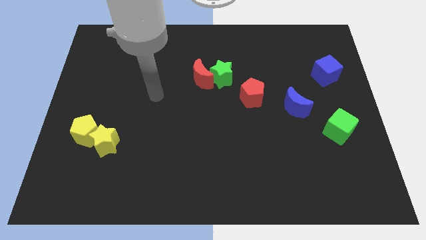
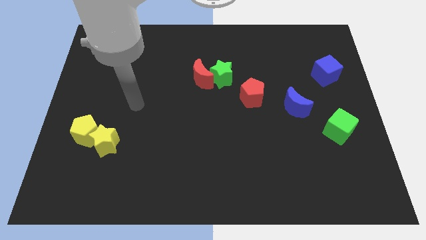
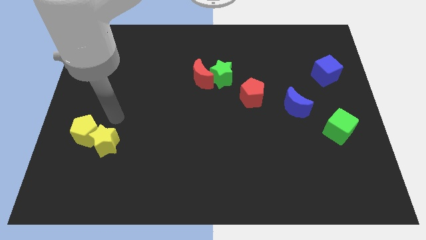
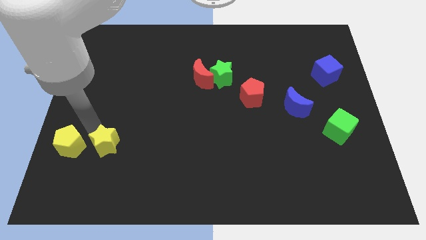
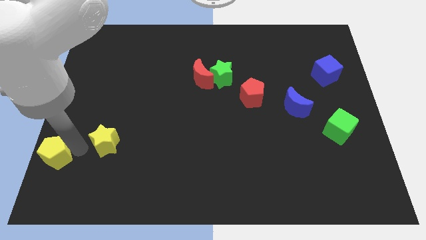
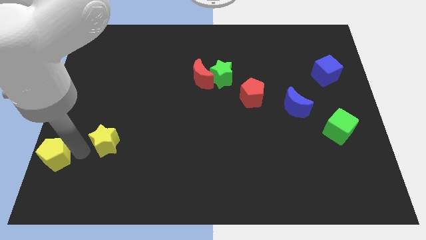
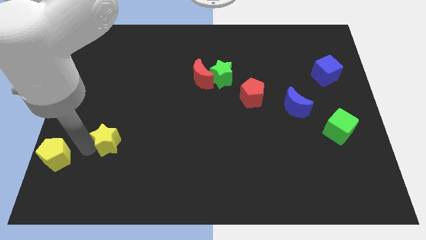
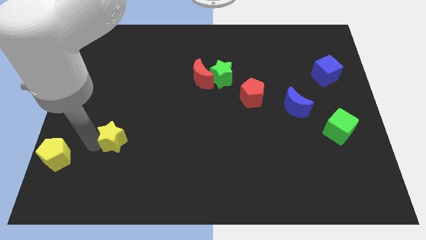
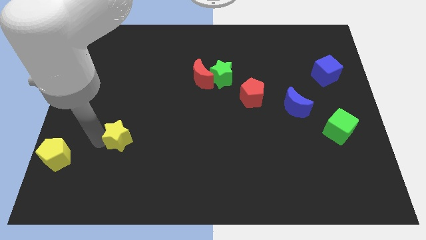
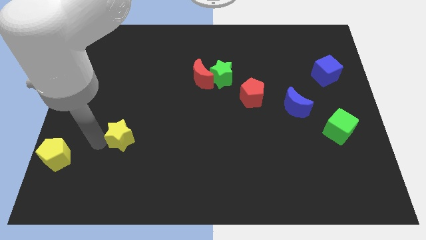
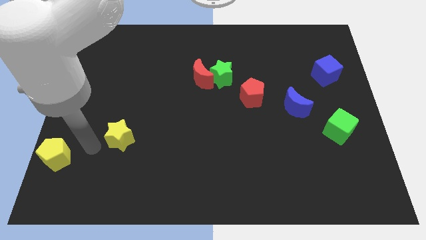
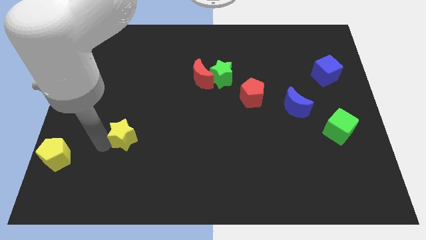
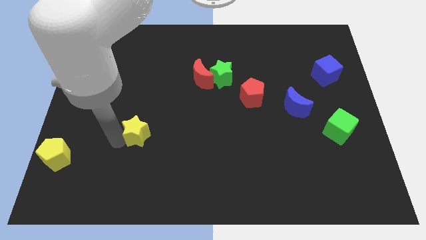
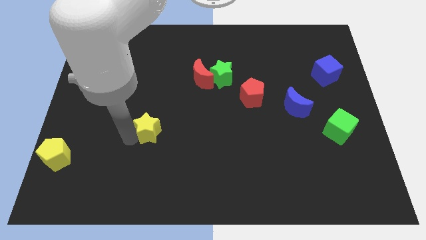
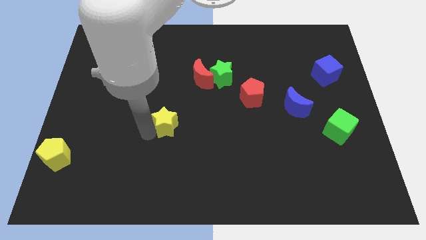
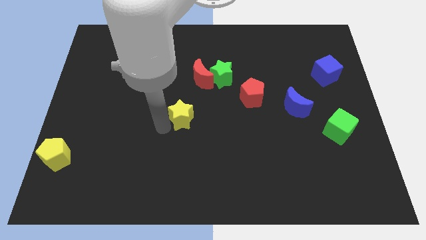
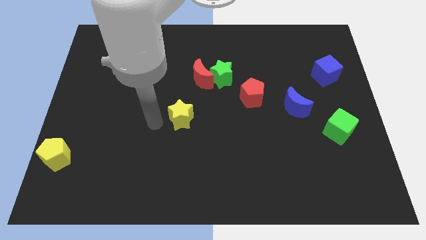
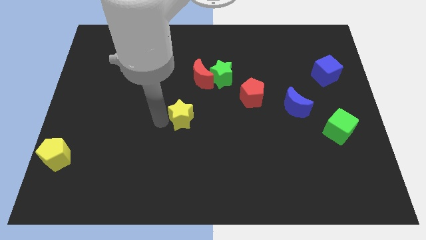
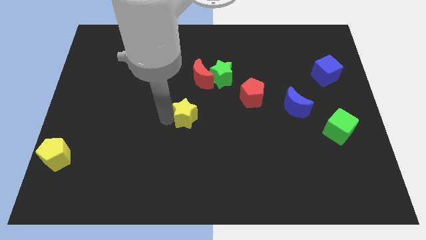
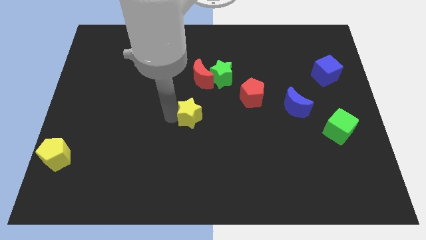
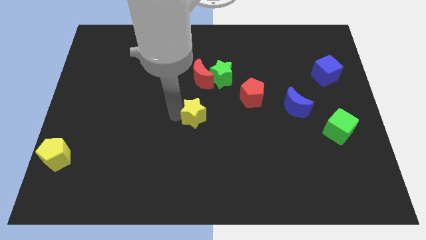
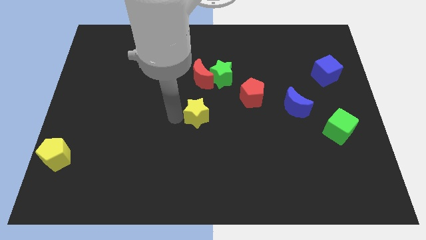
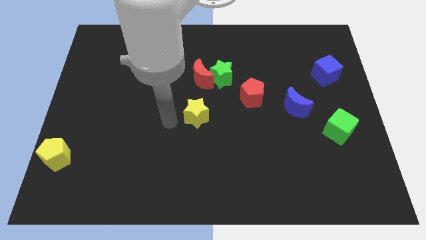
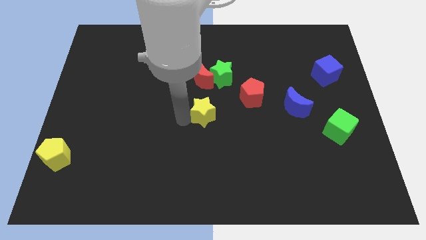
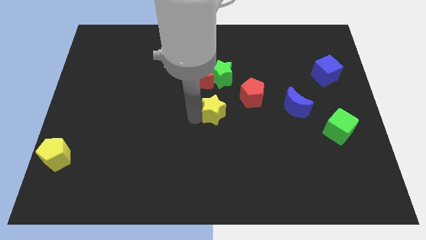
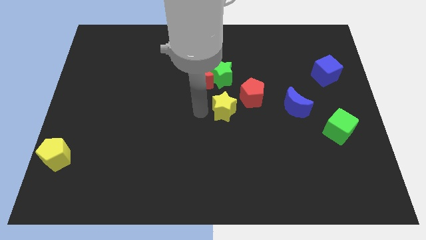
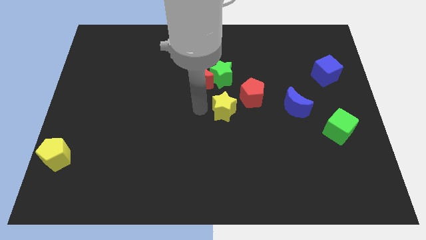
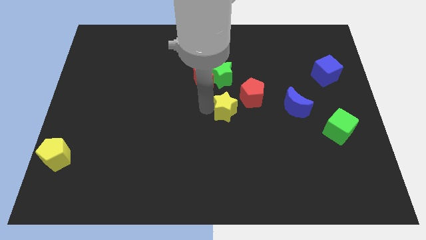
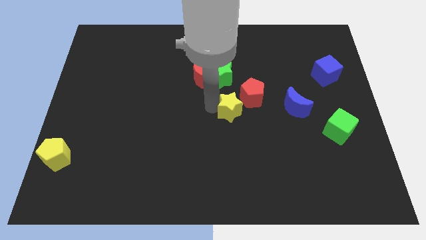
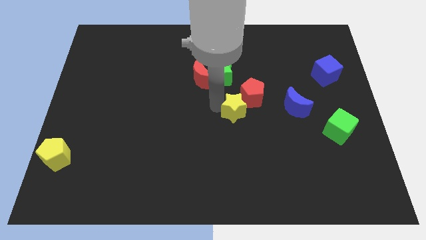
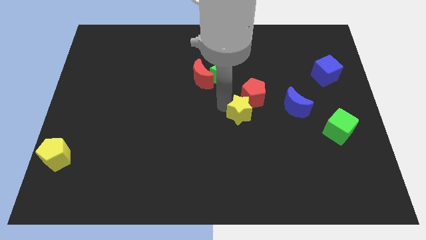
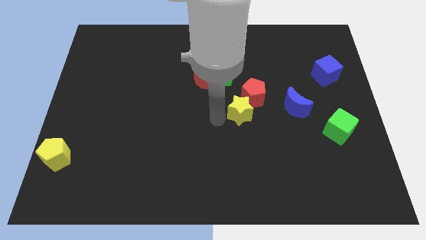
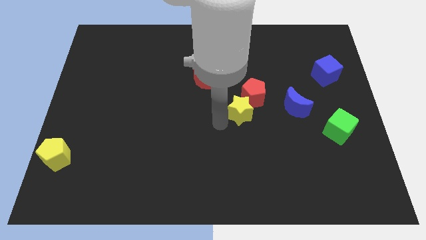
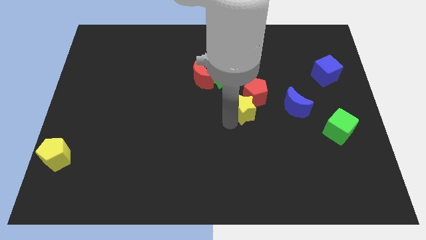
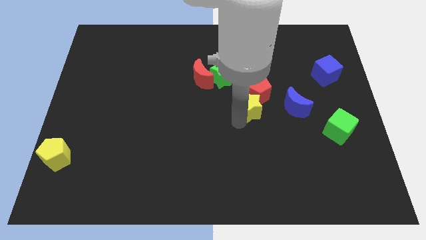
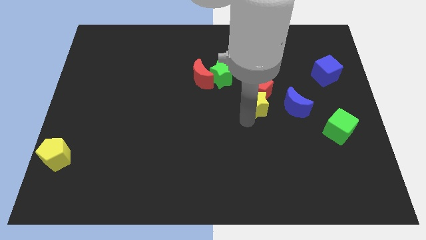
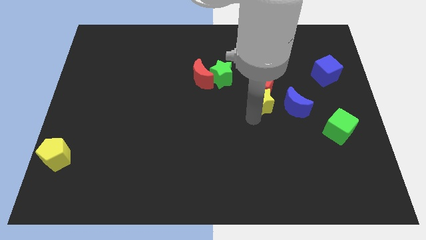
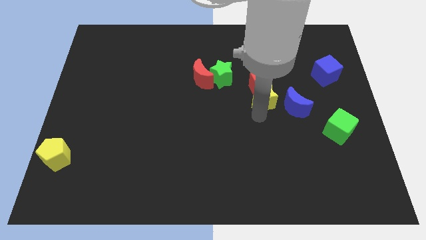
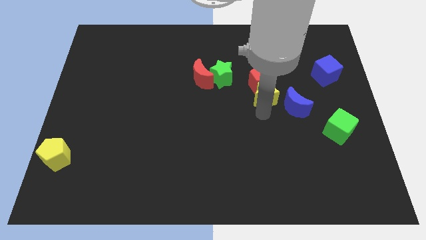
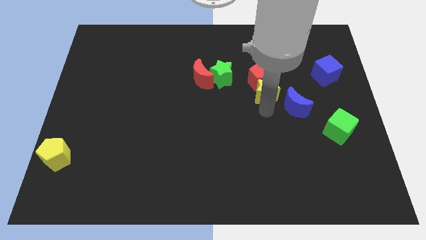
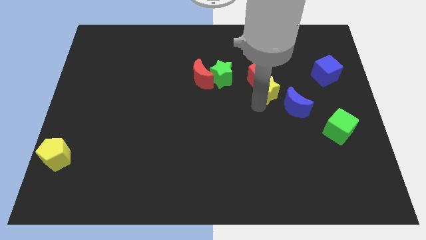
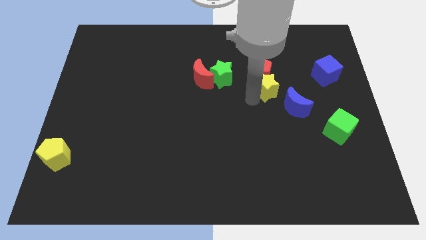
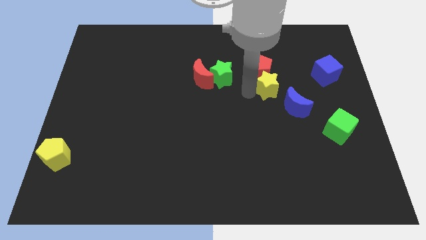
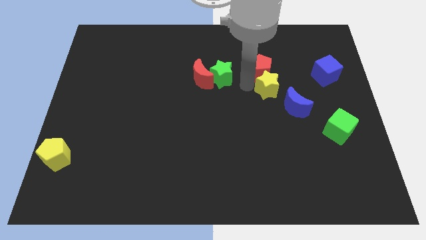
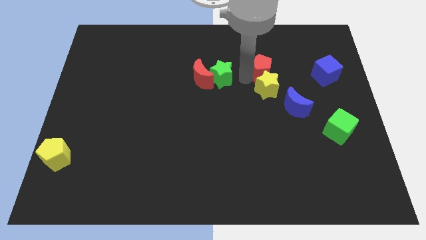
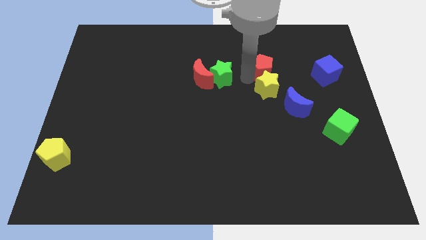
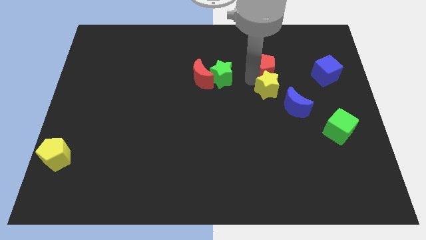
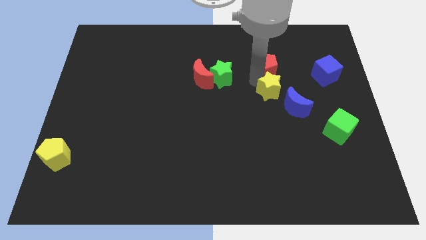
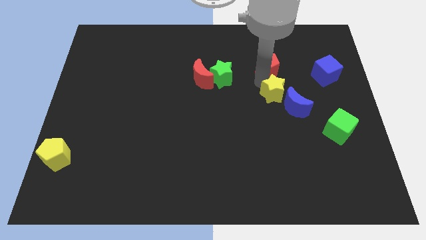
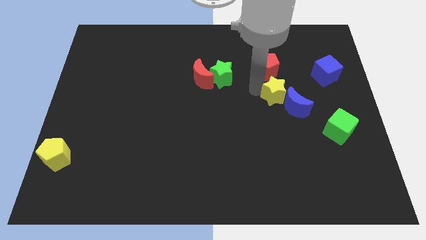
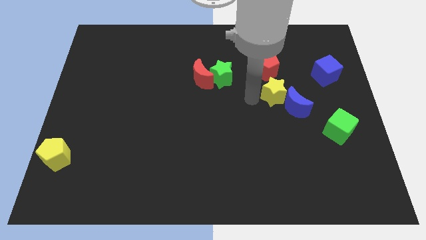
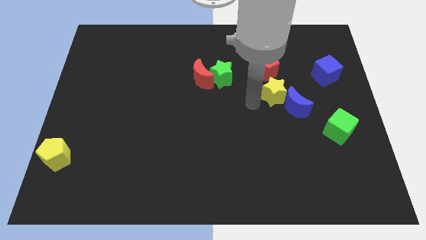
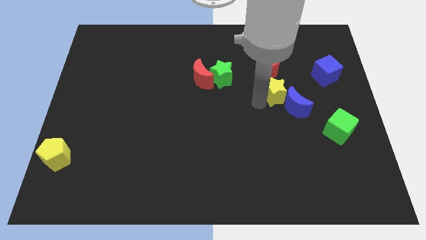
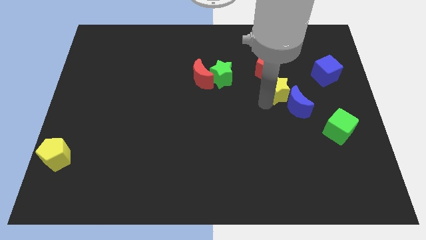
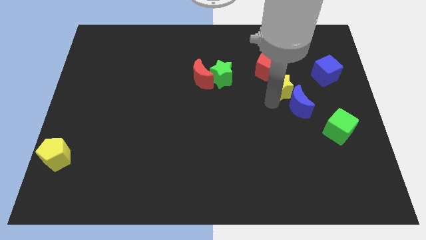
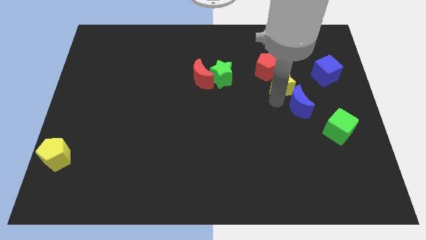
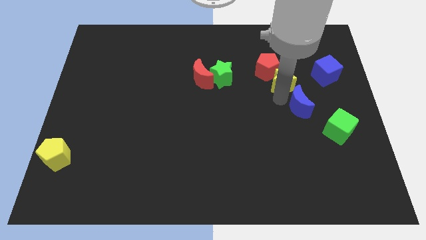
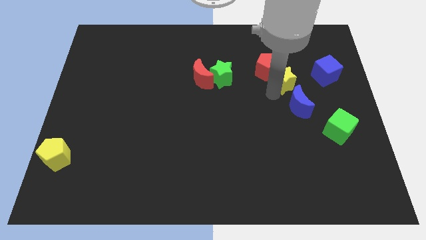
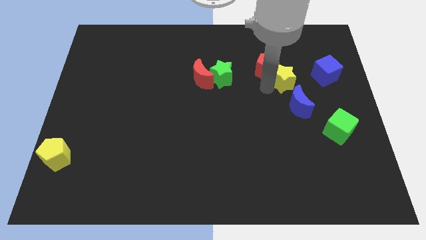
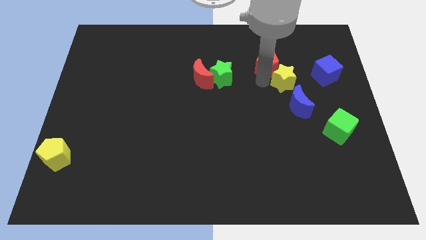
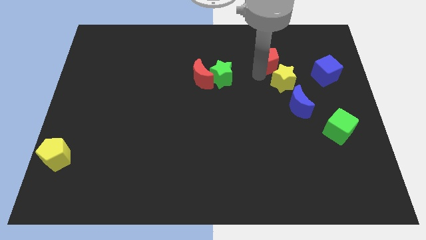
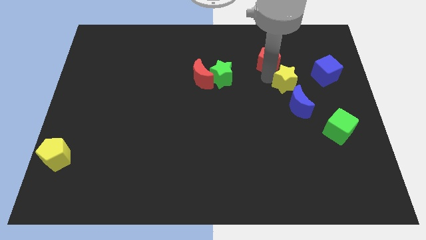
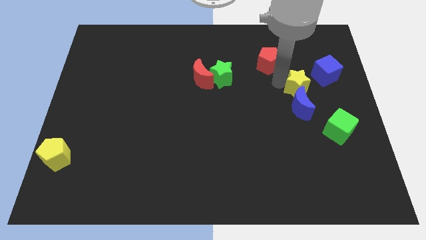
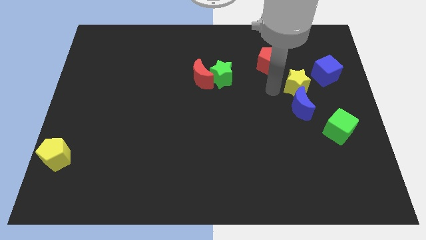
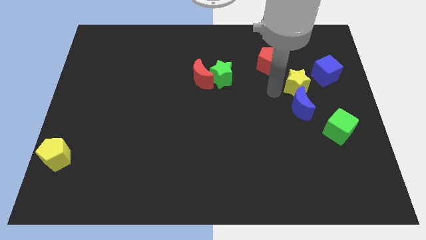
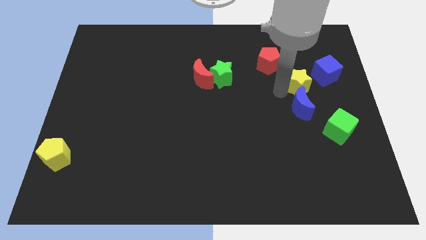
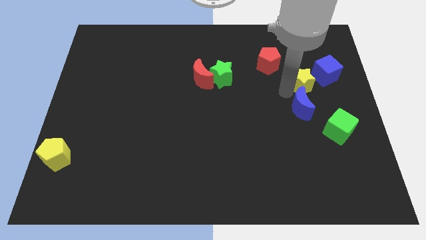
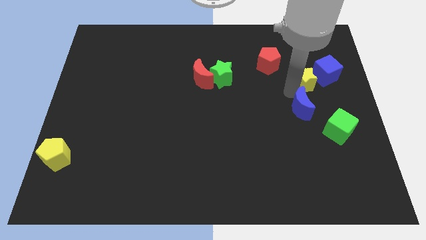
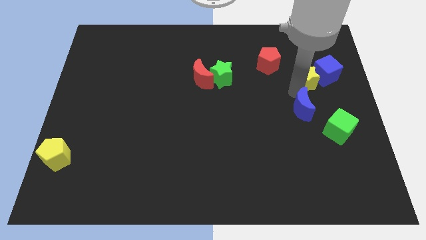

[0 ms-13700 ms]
slide the yellow star next to the blue cube
